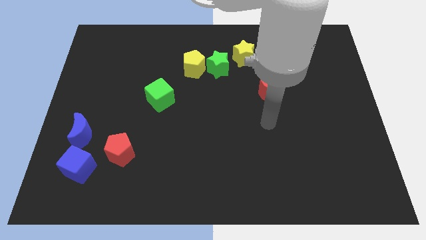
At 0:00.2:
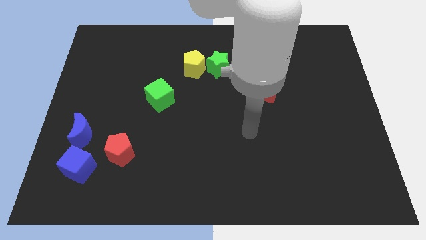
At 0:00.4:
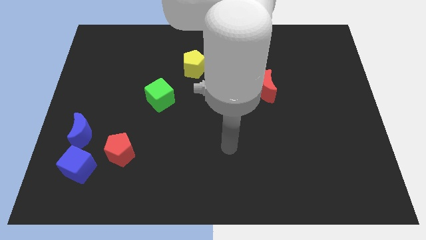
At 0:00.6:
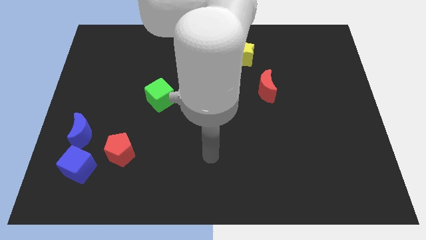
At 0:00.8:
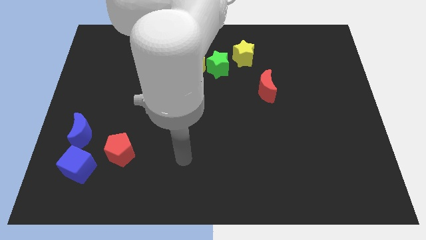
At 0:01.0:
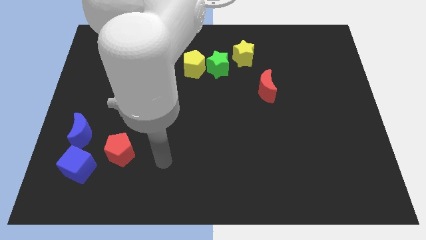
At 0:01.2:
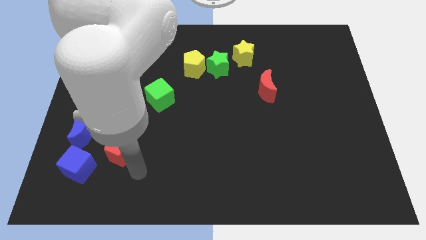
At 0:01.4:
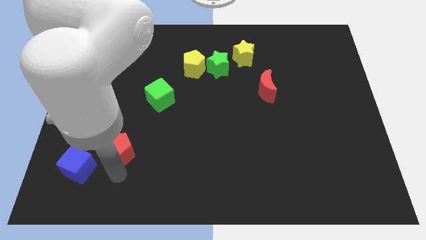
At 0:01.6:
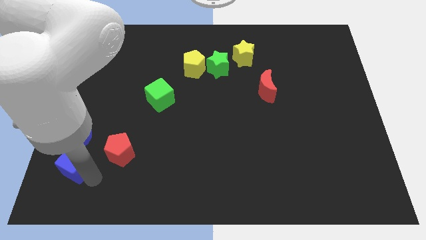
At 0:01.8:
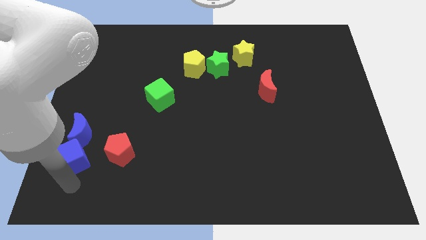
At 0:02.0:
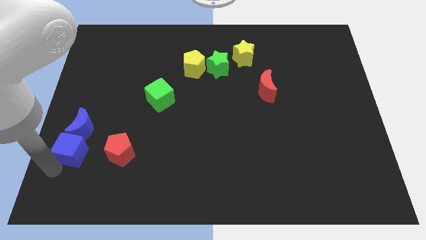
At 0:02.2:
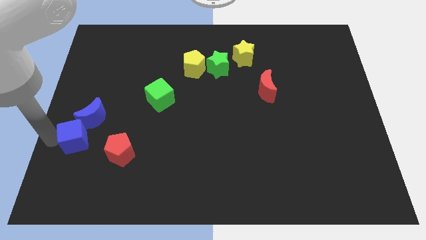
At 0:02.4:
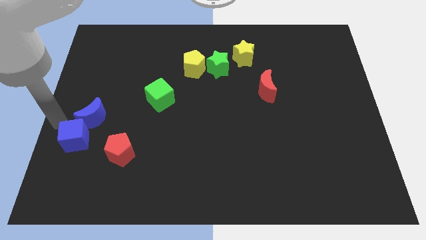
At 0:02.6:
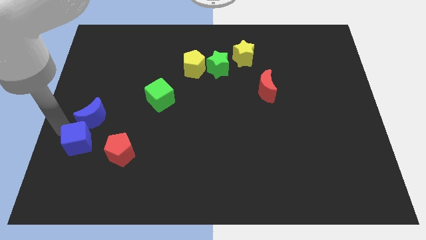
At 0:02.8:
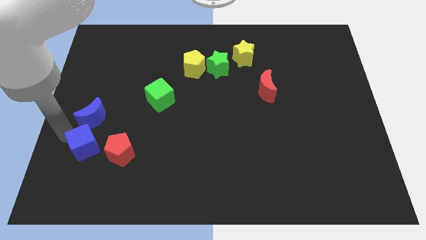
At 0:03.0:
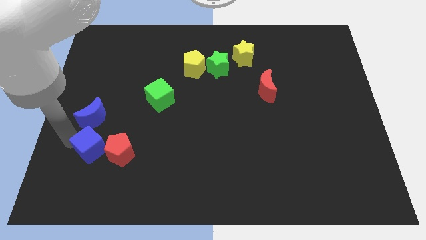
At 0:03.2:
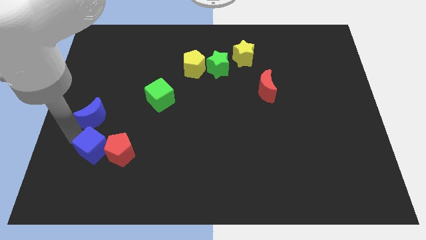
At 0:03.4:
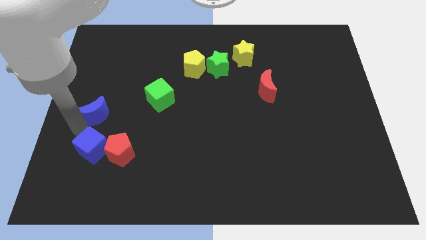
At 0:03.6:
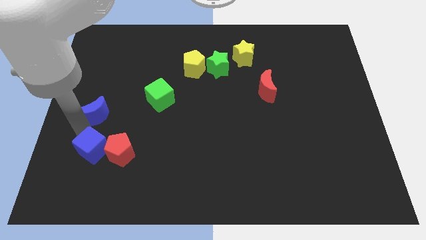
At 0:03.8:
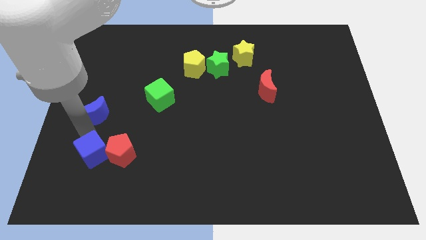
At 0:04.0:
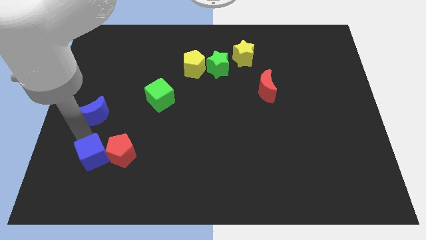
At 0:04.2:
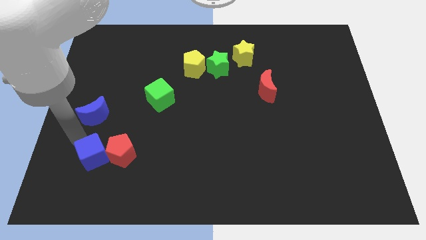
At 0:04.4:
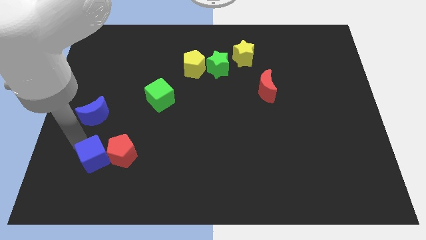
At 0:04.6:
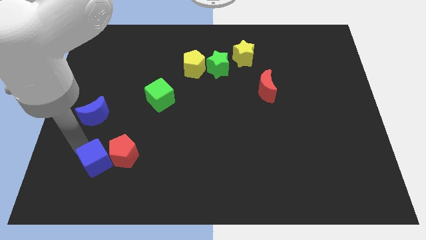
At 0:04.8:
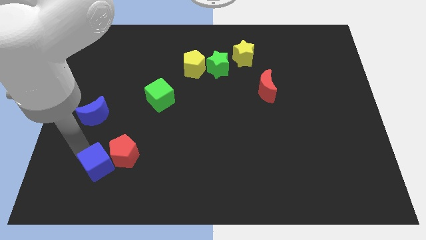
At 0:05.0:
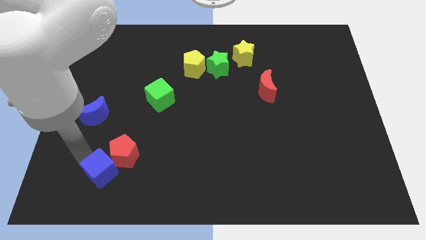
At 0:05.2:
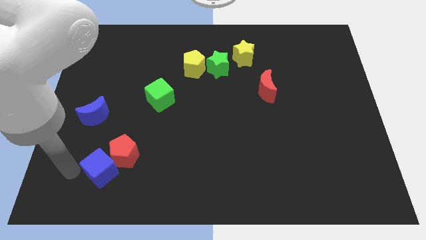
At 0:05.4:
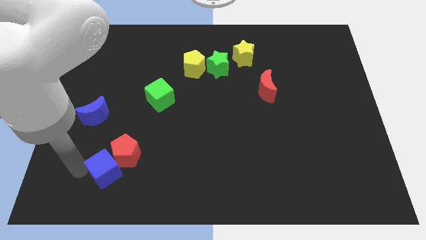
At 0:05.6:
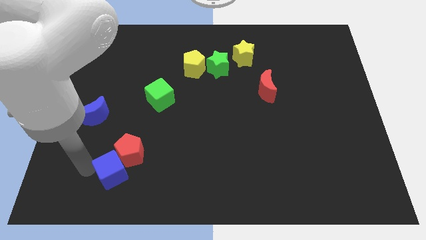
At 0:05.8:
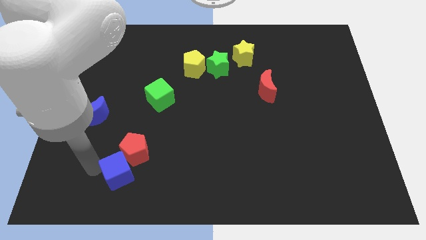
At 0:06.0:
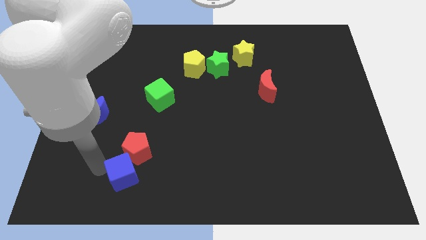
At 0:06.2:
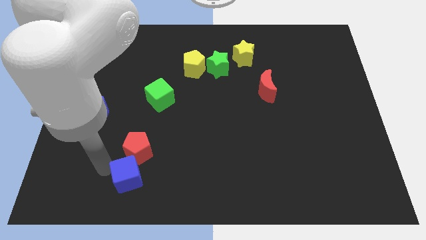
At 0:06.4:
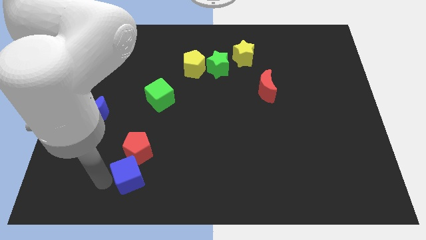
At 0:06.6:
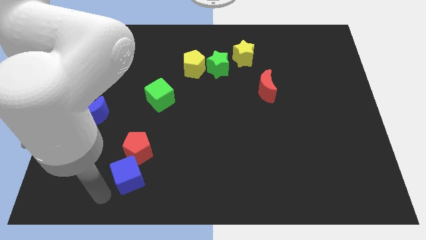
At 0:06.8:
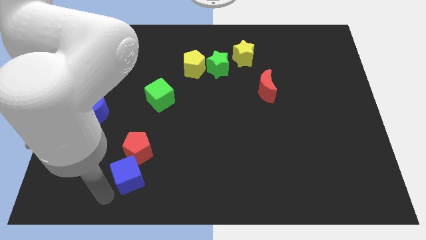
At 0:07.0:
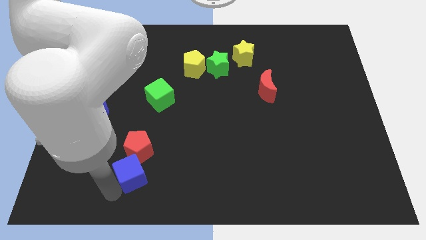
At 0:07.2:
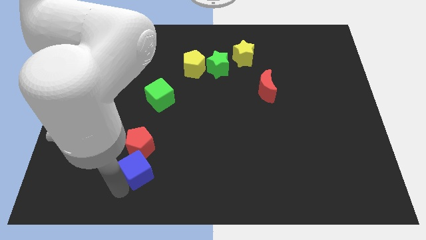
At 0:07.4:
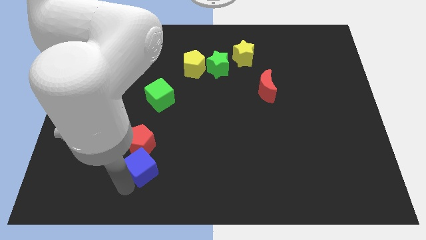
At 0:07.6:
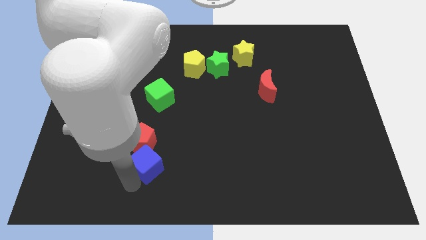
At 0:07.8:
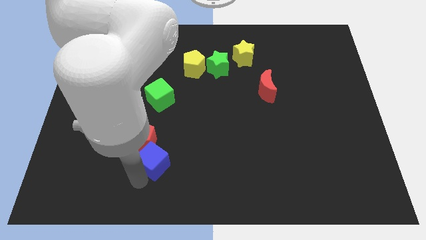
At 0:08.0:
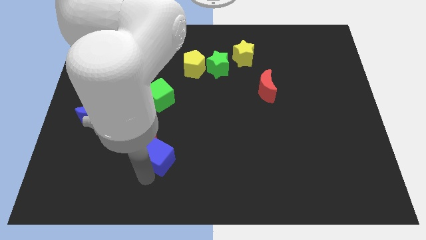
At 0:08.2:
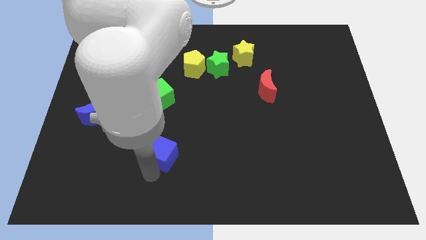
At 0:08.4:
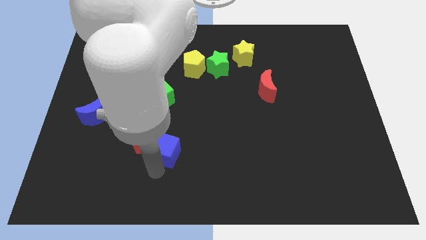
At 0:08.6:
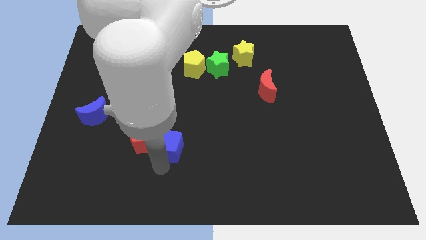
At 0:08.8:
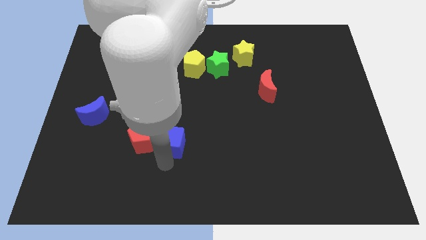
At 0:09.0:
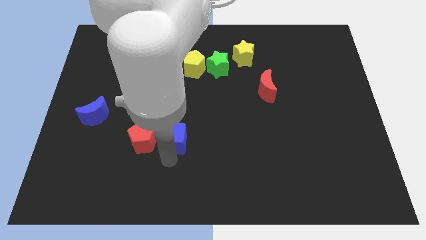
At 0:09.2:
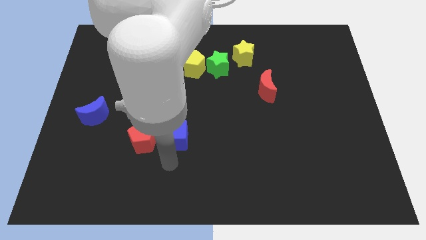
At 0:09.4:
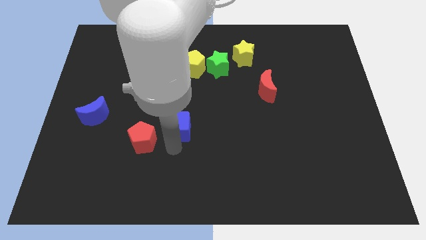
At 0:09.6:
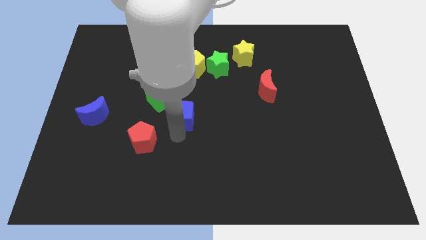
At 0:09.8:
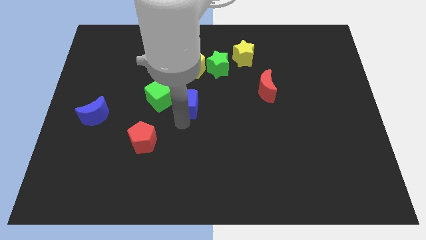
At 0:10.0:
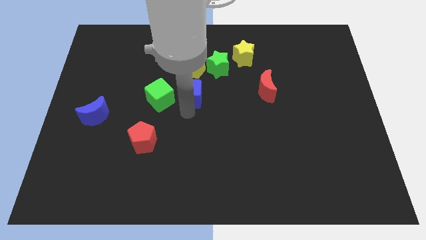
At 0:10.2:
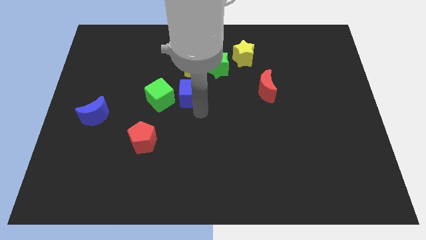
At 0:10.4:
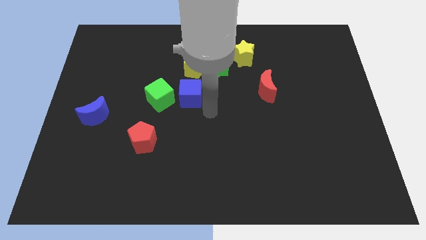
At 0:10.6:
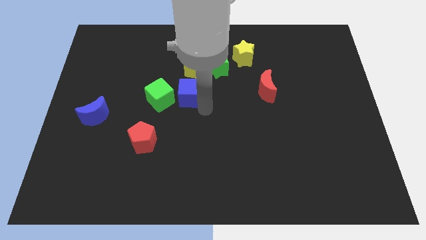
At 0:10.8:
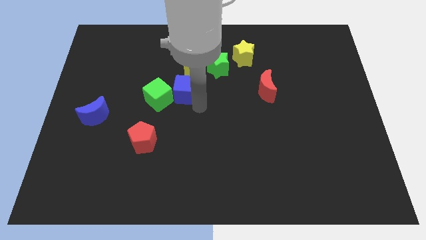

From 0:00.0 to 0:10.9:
move the blue cube diagonally down and to the left of the yellow pentagon

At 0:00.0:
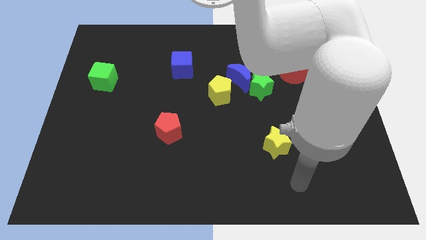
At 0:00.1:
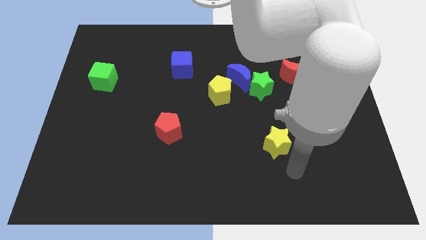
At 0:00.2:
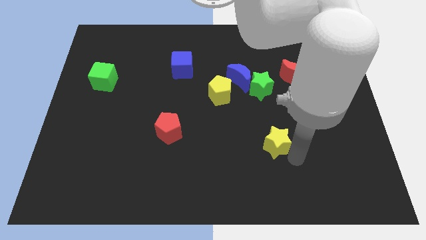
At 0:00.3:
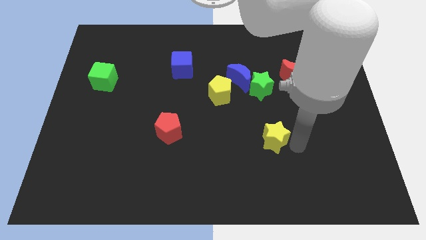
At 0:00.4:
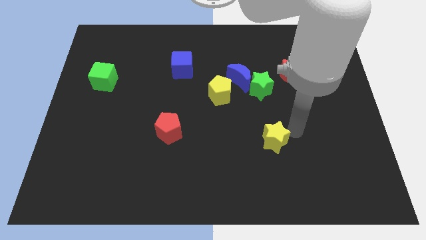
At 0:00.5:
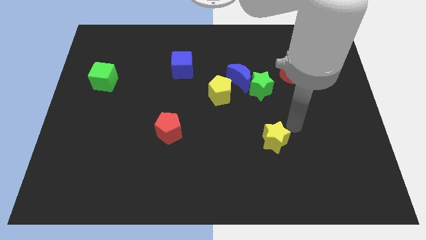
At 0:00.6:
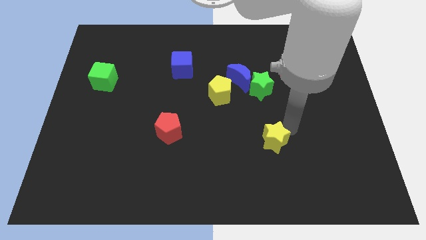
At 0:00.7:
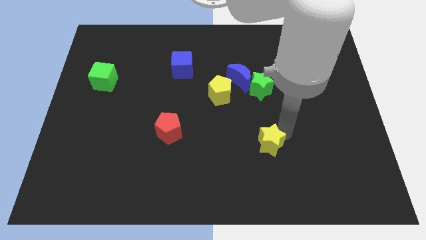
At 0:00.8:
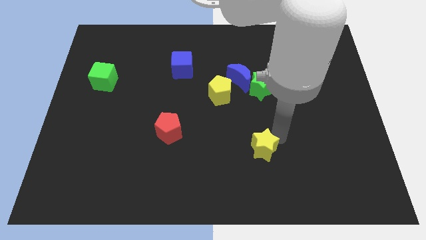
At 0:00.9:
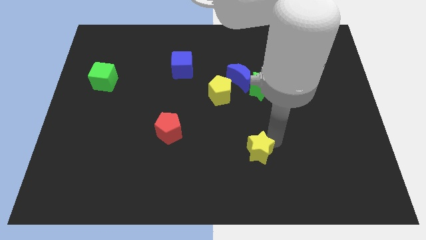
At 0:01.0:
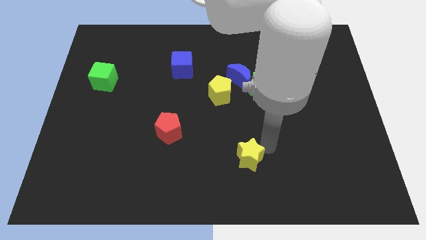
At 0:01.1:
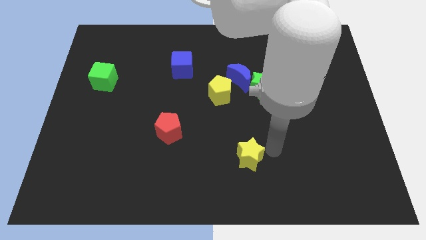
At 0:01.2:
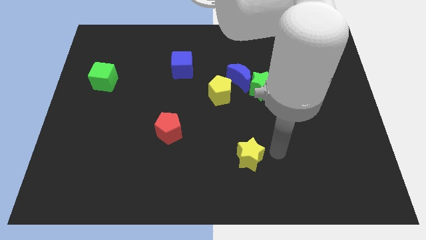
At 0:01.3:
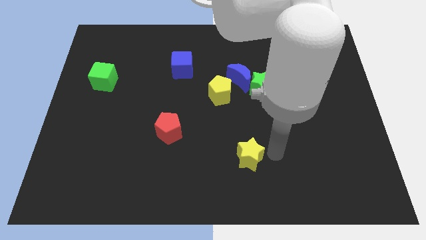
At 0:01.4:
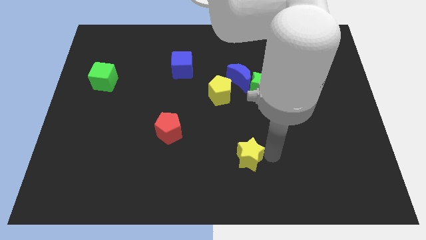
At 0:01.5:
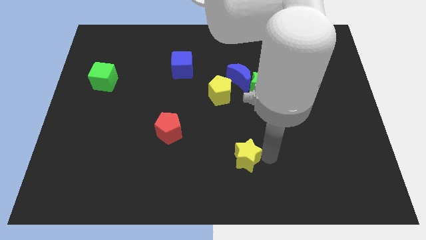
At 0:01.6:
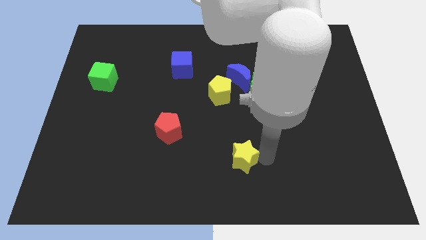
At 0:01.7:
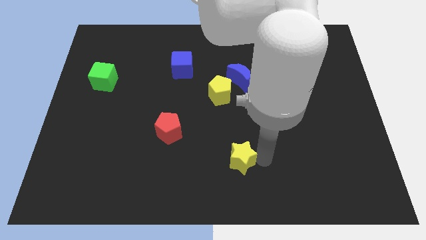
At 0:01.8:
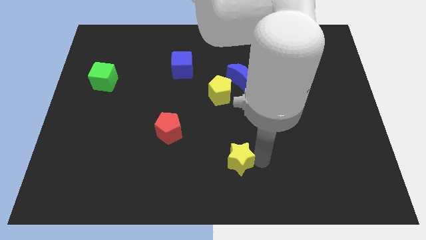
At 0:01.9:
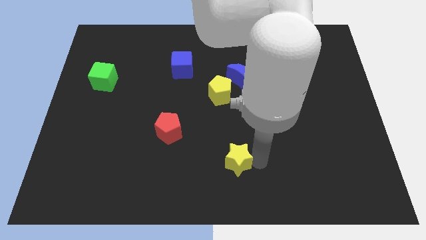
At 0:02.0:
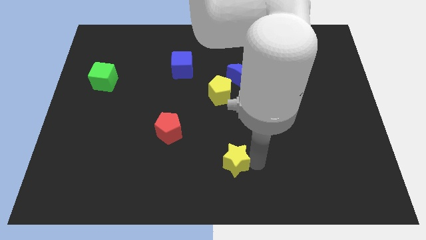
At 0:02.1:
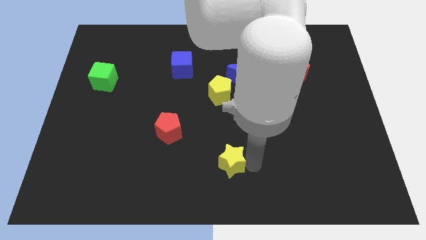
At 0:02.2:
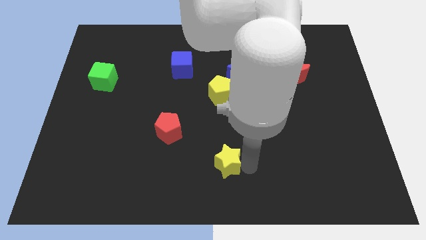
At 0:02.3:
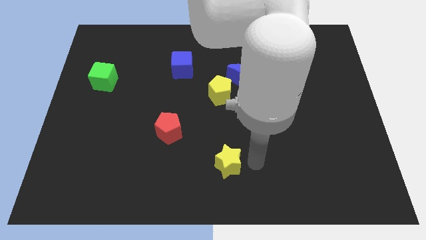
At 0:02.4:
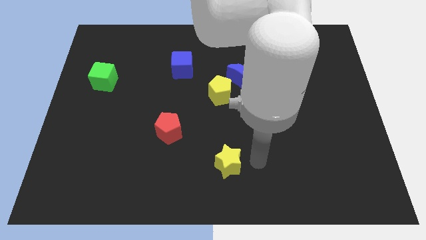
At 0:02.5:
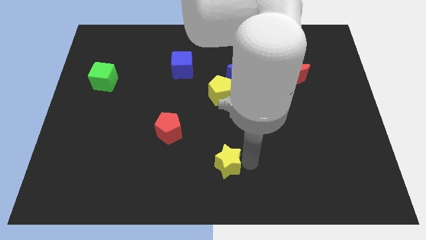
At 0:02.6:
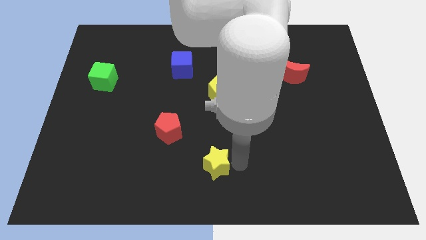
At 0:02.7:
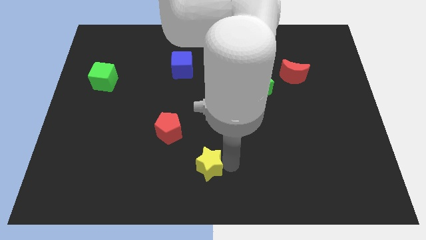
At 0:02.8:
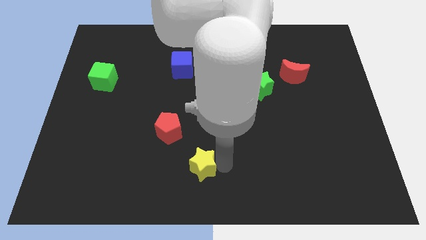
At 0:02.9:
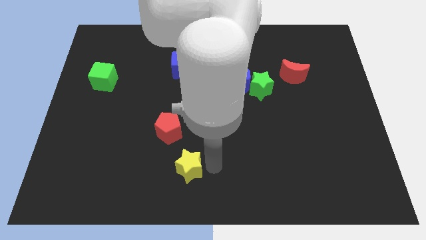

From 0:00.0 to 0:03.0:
slide the yellow star below the red pentagon
